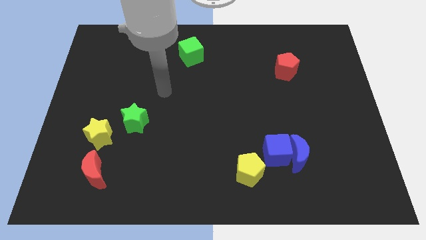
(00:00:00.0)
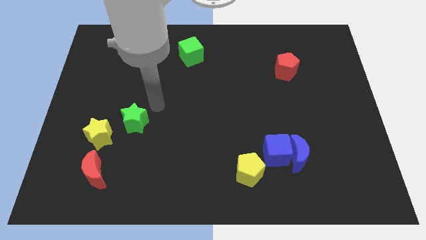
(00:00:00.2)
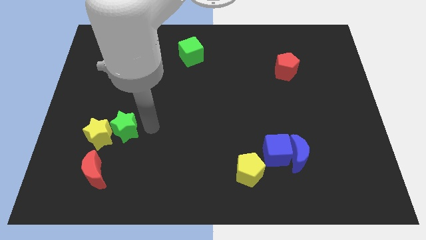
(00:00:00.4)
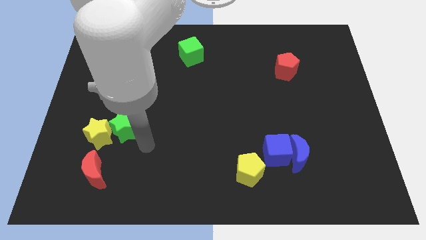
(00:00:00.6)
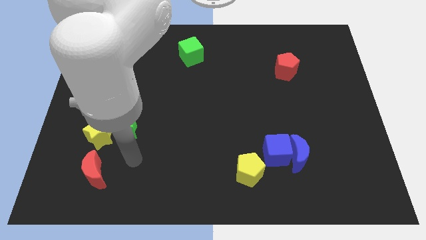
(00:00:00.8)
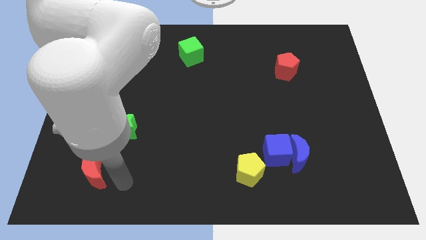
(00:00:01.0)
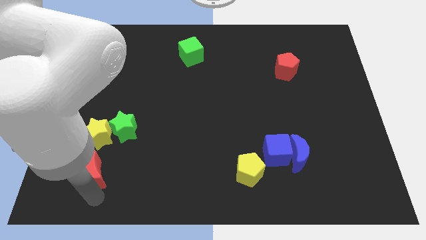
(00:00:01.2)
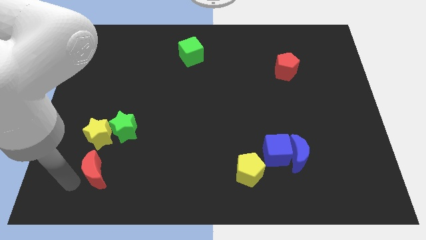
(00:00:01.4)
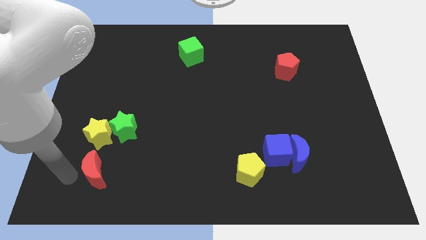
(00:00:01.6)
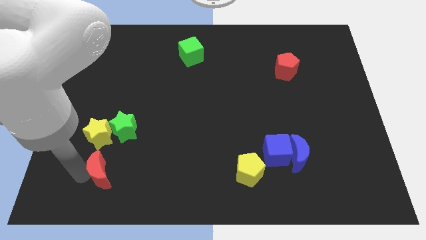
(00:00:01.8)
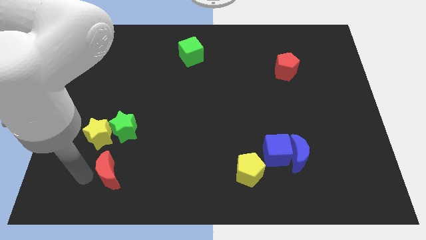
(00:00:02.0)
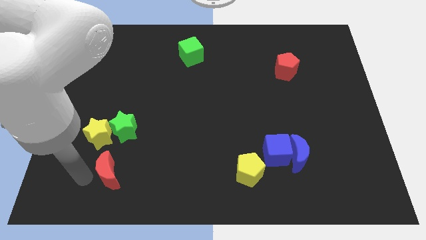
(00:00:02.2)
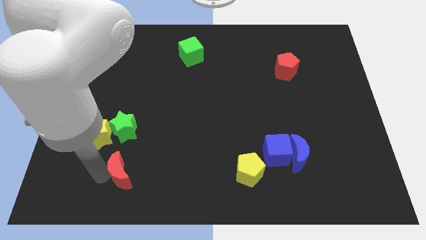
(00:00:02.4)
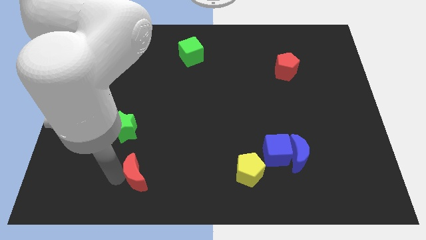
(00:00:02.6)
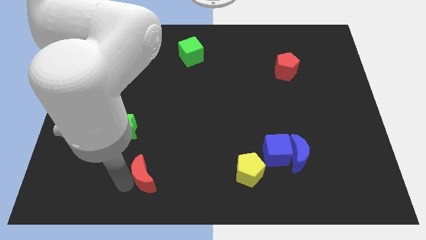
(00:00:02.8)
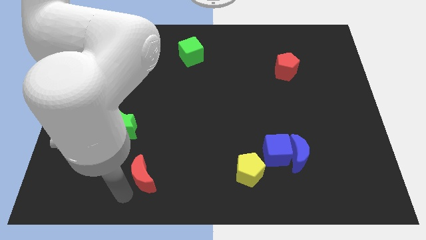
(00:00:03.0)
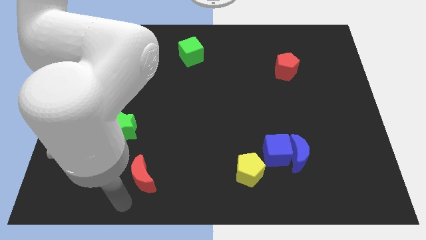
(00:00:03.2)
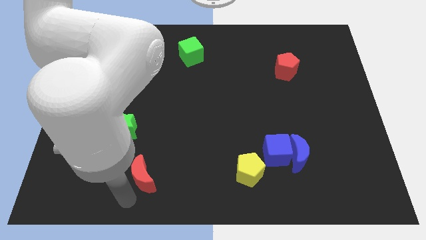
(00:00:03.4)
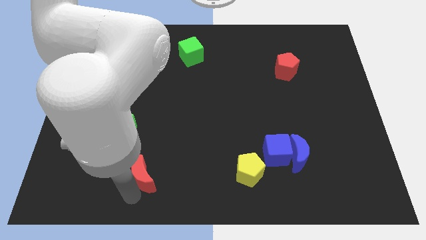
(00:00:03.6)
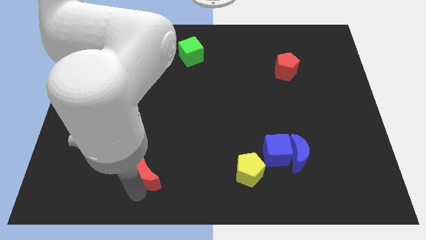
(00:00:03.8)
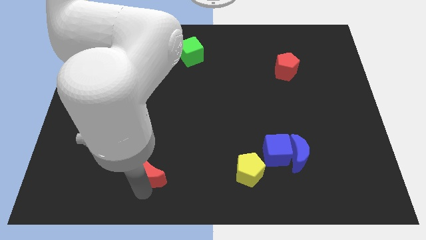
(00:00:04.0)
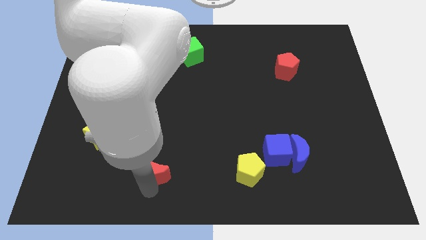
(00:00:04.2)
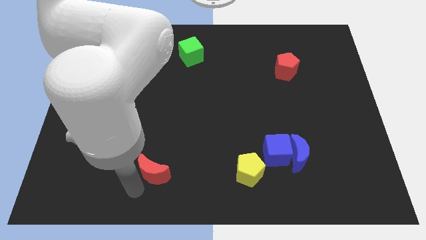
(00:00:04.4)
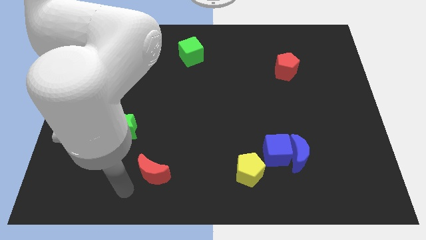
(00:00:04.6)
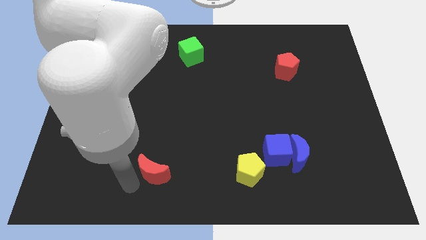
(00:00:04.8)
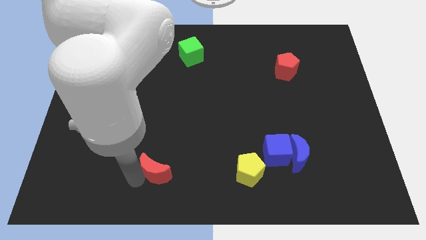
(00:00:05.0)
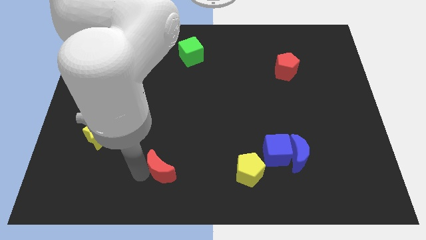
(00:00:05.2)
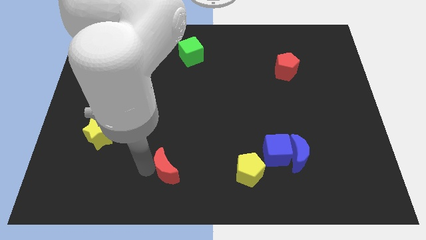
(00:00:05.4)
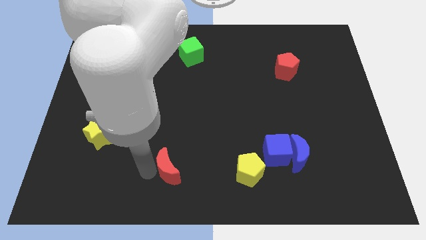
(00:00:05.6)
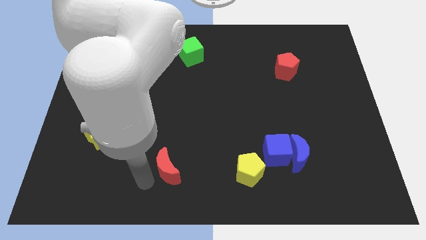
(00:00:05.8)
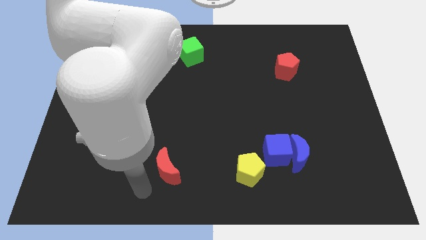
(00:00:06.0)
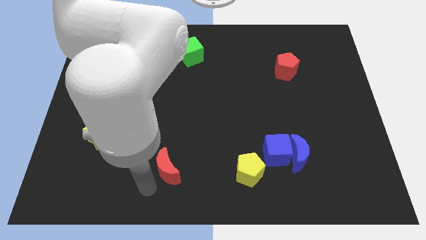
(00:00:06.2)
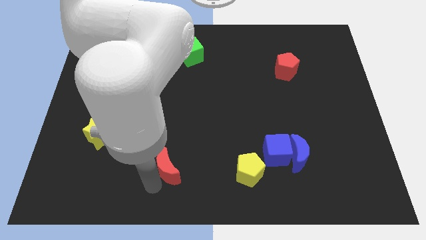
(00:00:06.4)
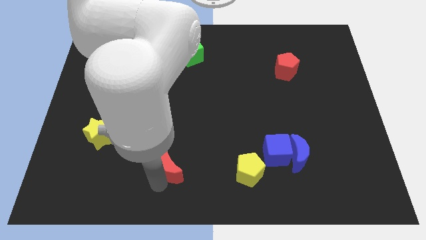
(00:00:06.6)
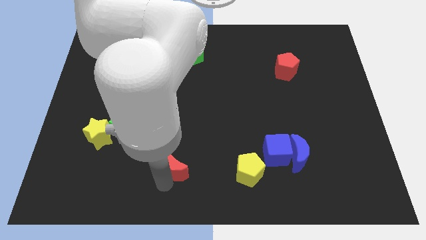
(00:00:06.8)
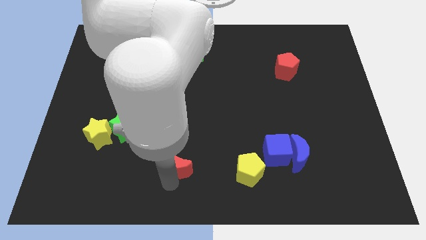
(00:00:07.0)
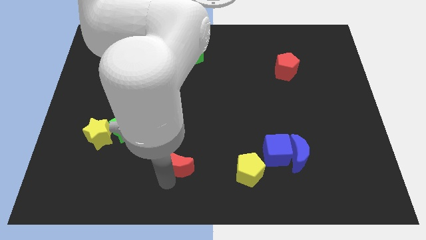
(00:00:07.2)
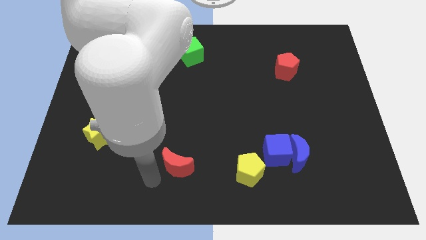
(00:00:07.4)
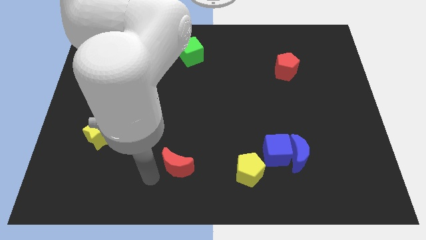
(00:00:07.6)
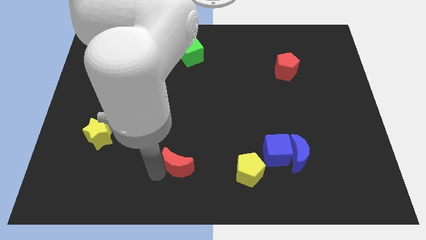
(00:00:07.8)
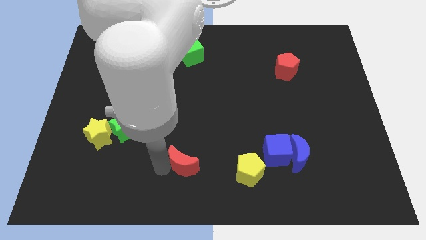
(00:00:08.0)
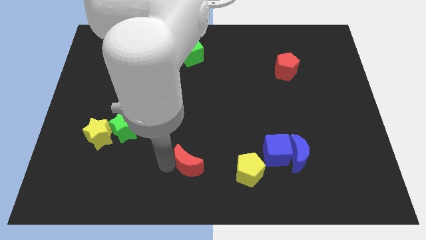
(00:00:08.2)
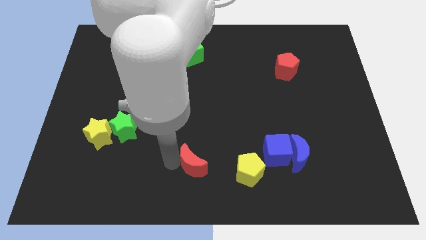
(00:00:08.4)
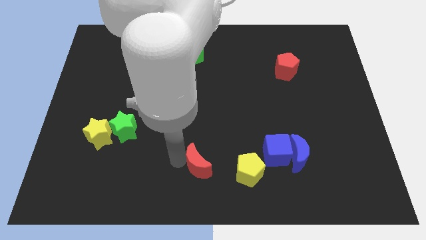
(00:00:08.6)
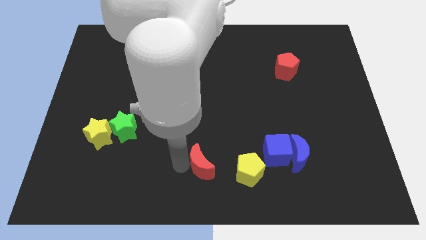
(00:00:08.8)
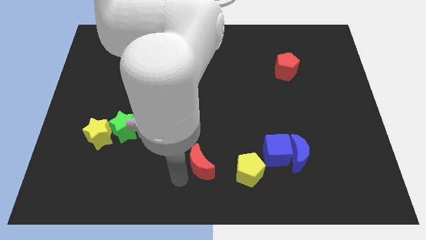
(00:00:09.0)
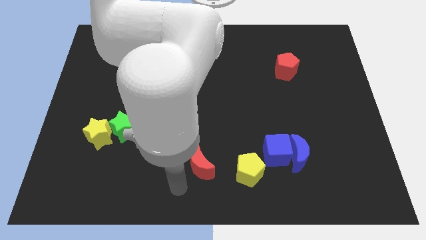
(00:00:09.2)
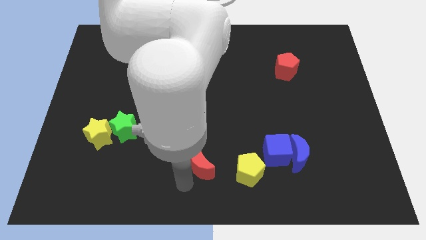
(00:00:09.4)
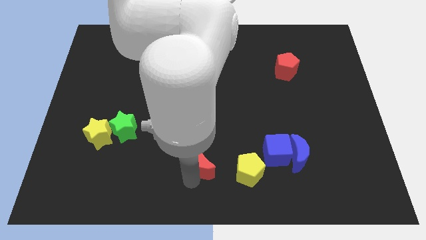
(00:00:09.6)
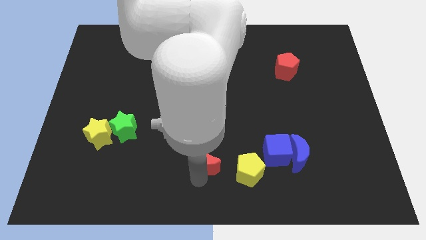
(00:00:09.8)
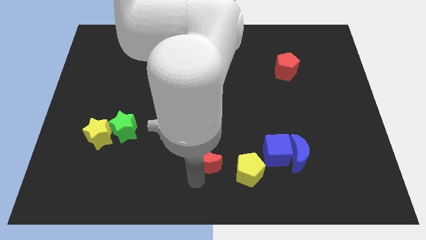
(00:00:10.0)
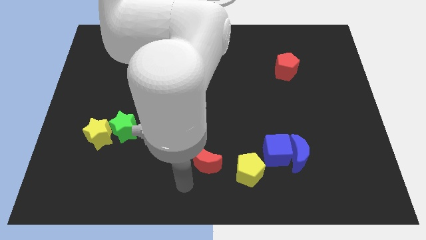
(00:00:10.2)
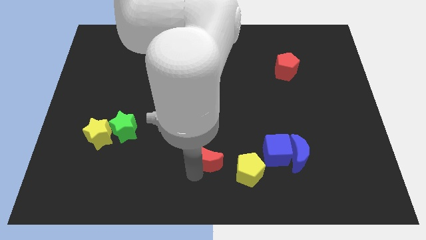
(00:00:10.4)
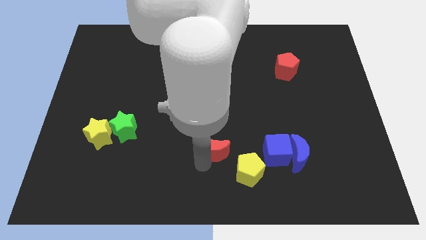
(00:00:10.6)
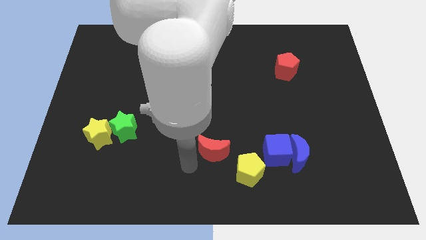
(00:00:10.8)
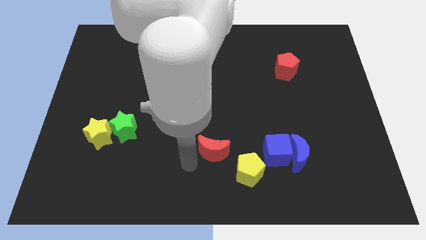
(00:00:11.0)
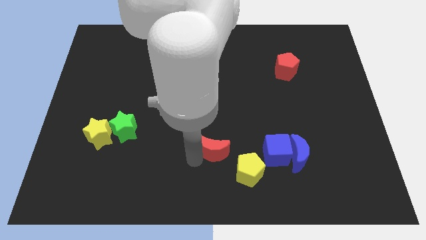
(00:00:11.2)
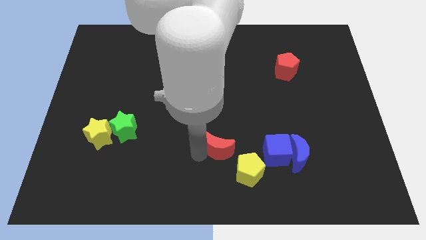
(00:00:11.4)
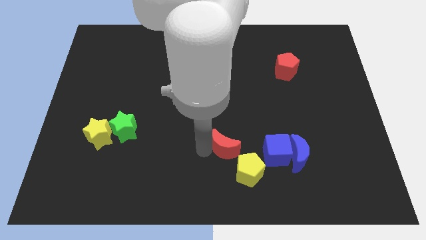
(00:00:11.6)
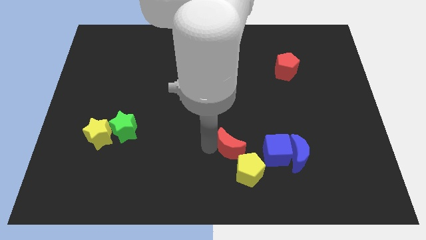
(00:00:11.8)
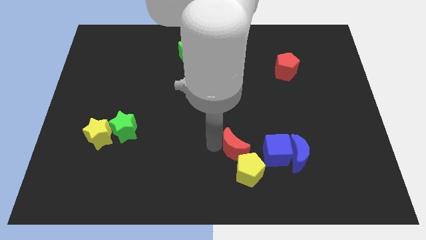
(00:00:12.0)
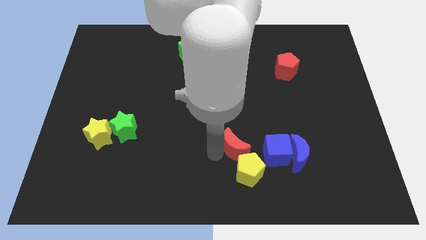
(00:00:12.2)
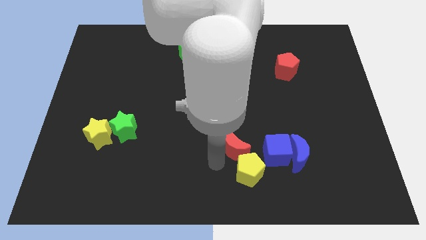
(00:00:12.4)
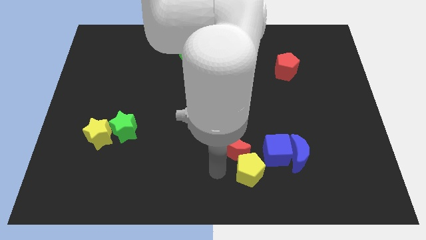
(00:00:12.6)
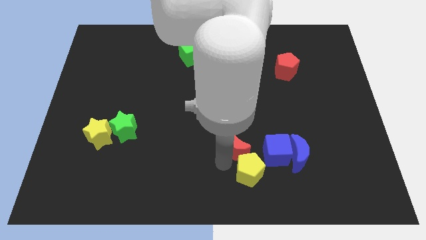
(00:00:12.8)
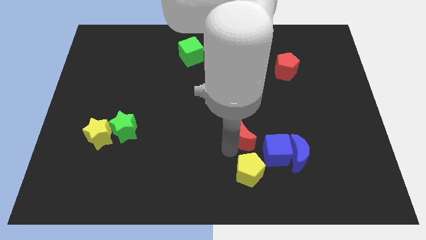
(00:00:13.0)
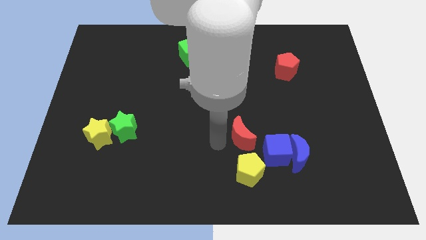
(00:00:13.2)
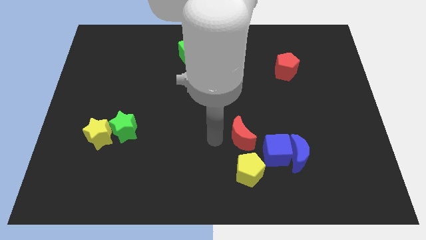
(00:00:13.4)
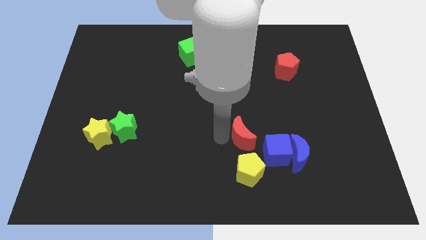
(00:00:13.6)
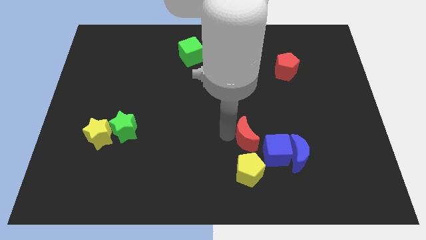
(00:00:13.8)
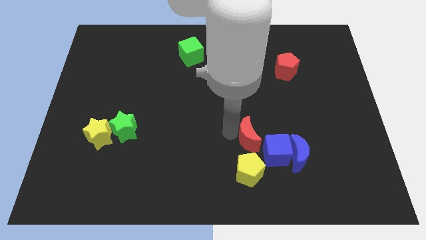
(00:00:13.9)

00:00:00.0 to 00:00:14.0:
slide the red moon diagonally up and to the left of the blue moon

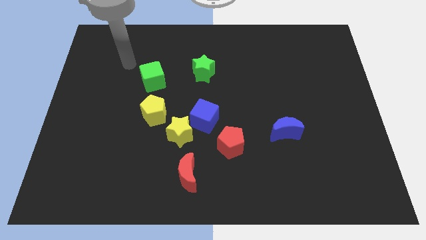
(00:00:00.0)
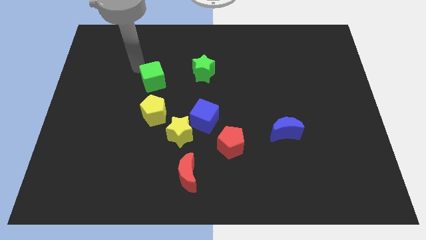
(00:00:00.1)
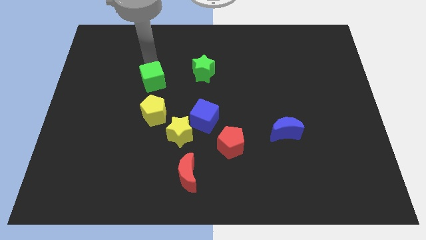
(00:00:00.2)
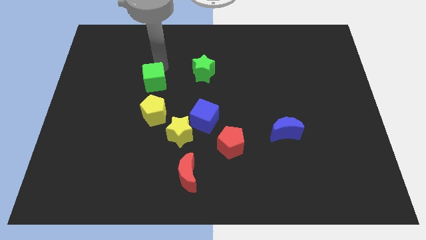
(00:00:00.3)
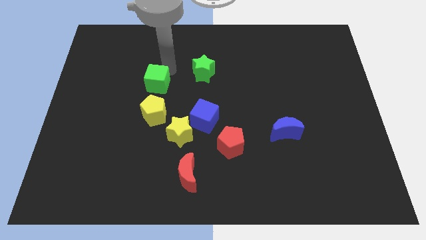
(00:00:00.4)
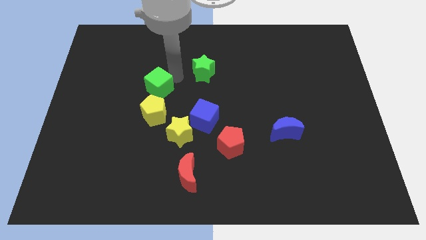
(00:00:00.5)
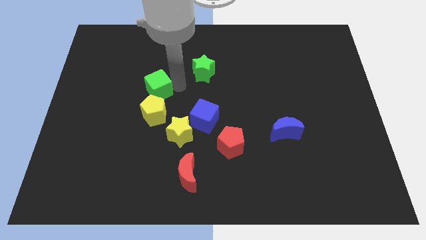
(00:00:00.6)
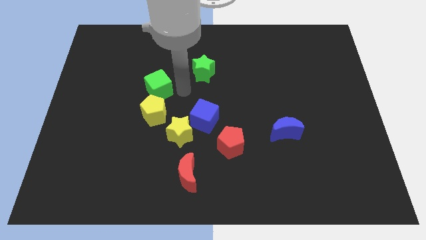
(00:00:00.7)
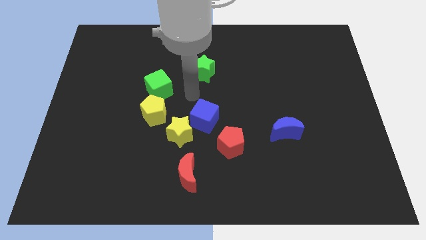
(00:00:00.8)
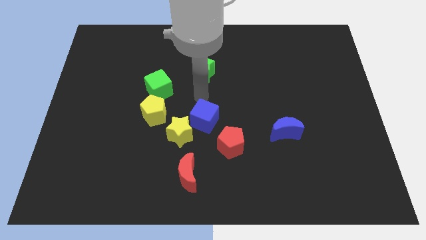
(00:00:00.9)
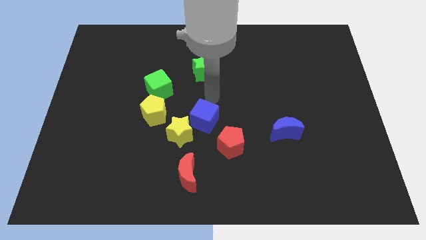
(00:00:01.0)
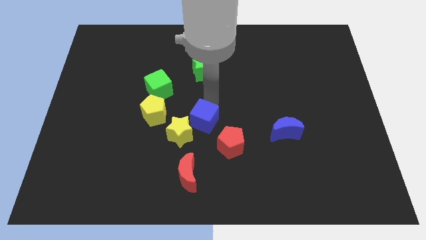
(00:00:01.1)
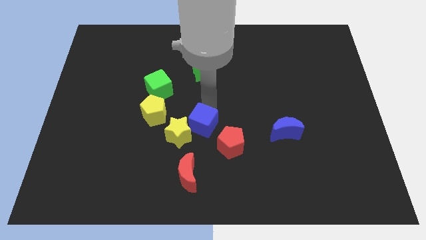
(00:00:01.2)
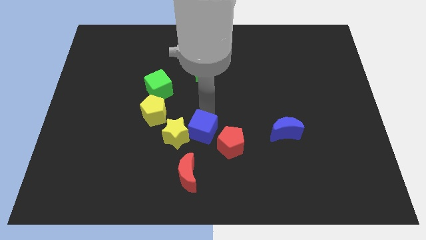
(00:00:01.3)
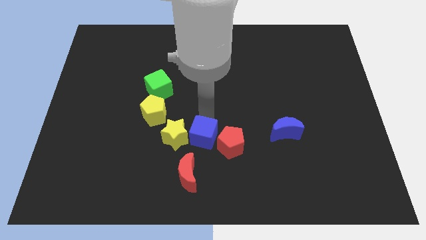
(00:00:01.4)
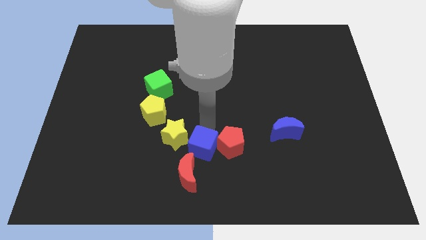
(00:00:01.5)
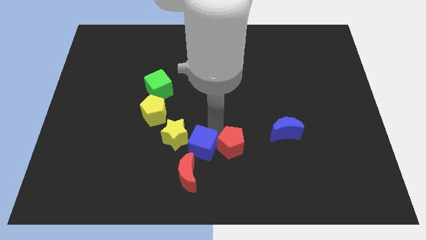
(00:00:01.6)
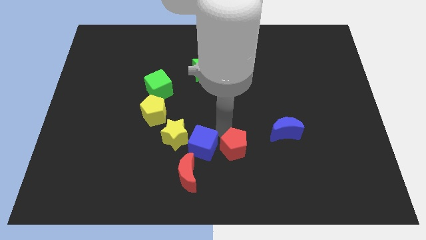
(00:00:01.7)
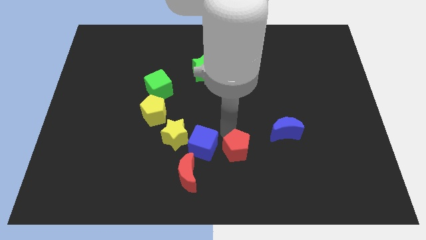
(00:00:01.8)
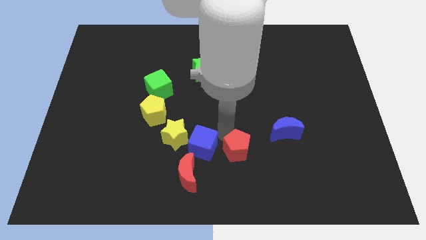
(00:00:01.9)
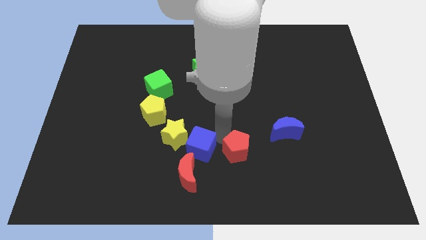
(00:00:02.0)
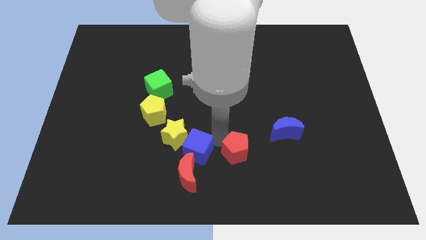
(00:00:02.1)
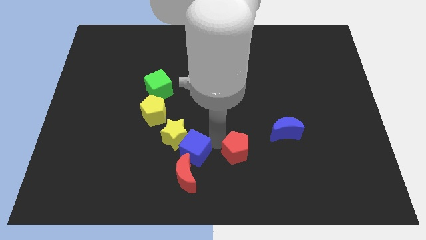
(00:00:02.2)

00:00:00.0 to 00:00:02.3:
slide the blue cube to the bottom of the yellow star
